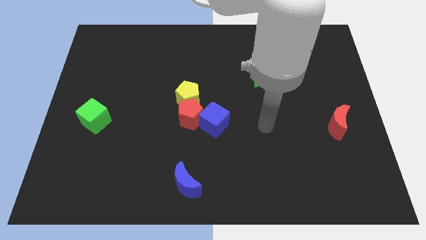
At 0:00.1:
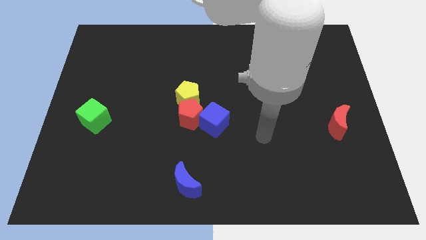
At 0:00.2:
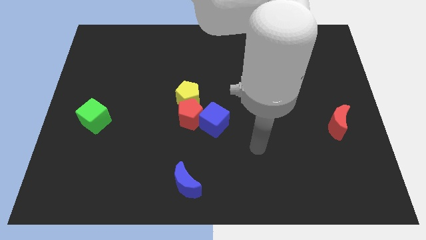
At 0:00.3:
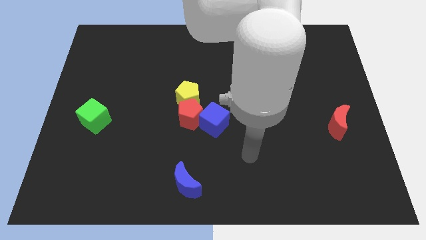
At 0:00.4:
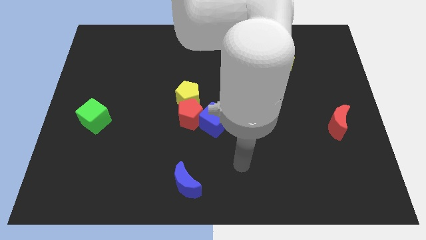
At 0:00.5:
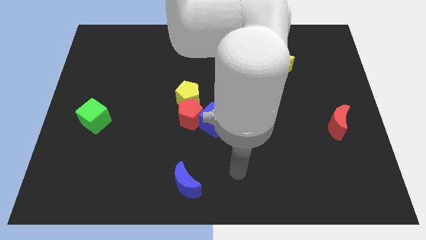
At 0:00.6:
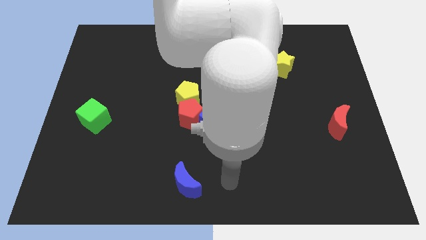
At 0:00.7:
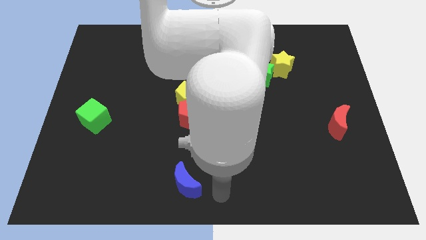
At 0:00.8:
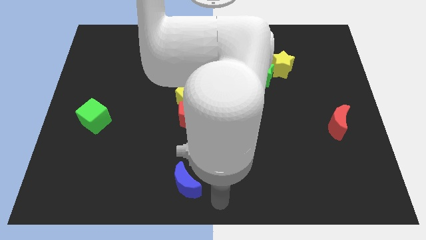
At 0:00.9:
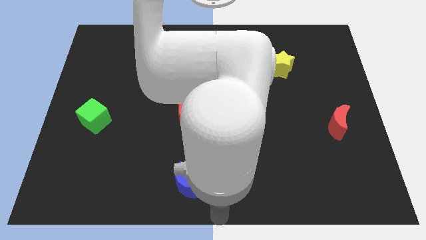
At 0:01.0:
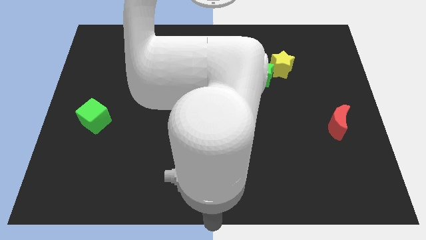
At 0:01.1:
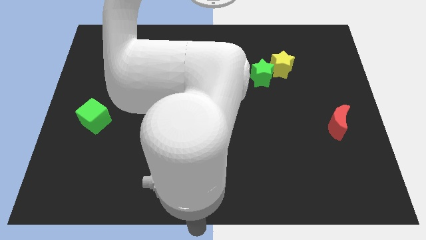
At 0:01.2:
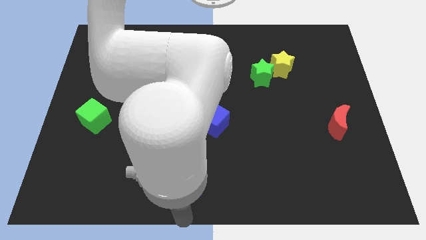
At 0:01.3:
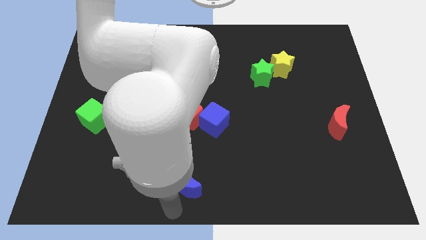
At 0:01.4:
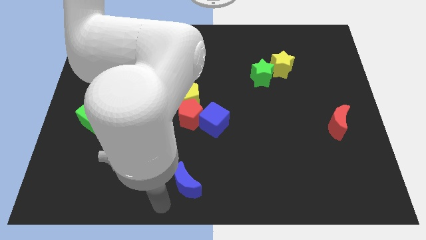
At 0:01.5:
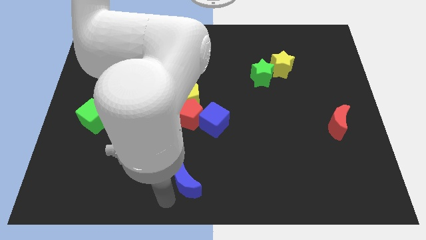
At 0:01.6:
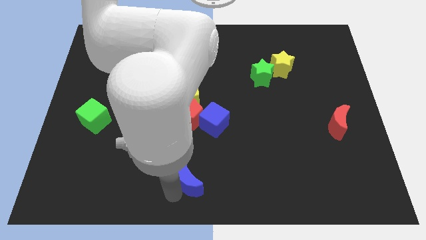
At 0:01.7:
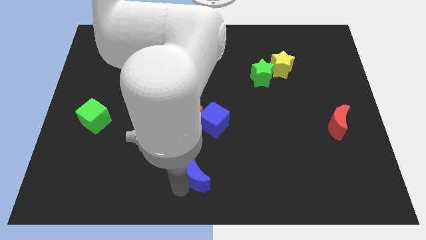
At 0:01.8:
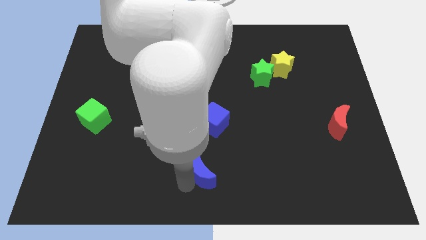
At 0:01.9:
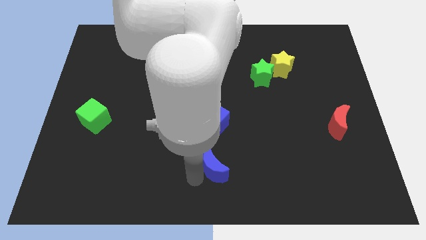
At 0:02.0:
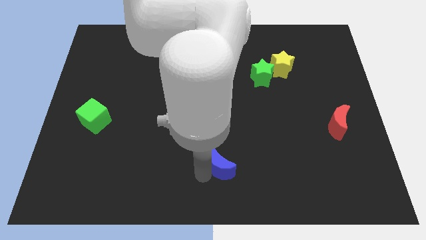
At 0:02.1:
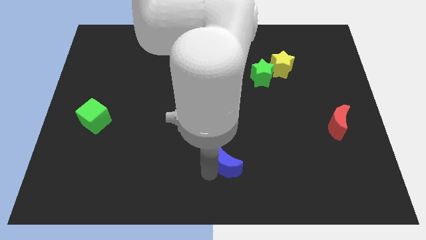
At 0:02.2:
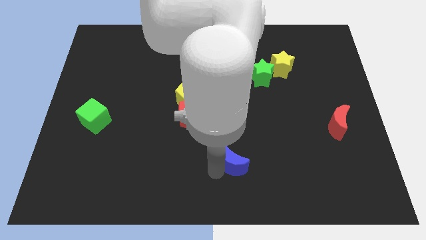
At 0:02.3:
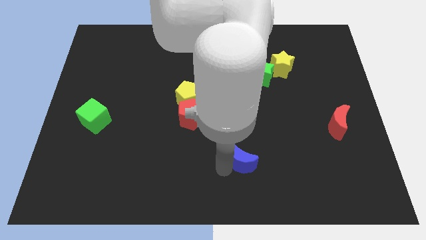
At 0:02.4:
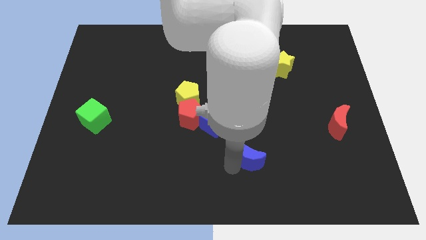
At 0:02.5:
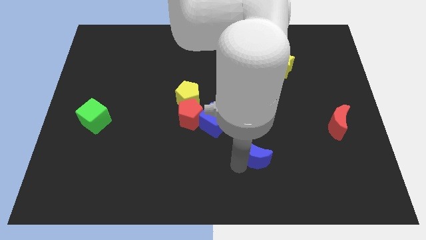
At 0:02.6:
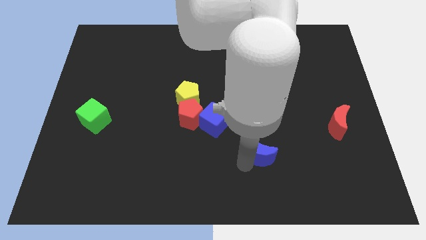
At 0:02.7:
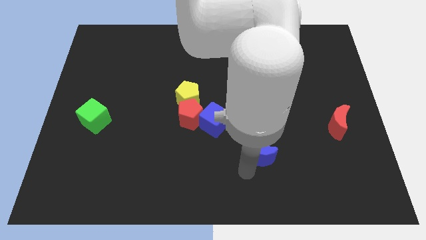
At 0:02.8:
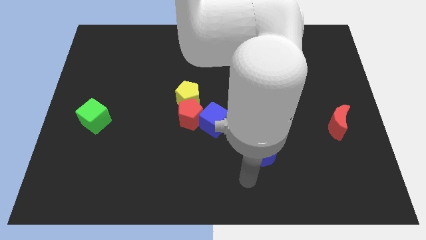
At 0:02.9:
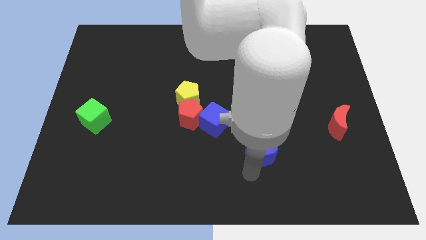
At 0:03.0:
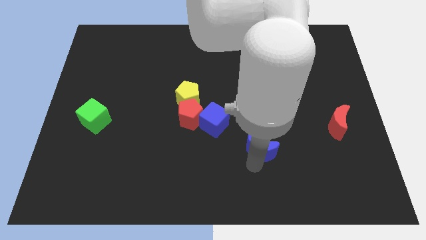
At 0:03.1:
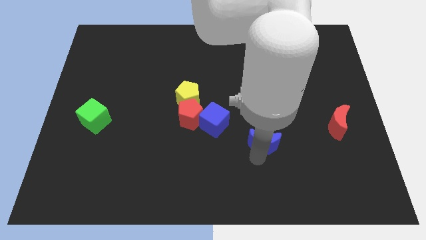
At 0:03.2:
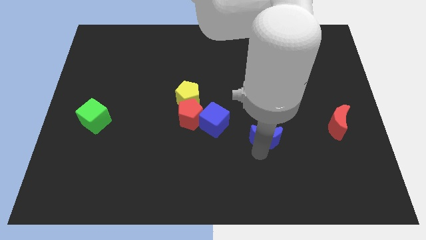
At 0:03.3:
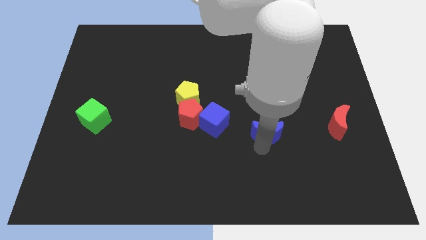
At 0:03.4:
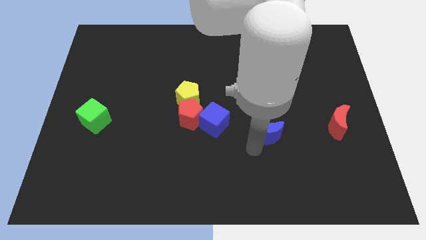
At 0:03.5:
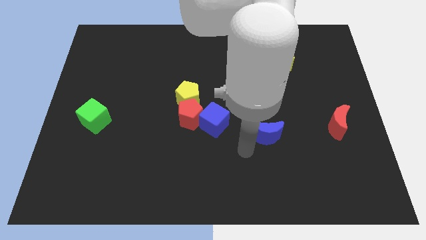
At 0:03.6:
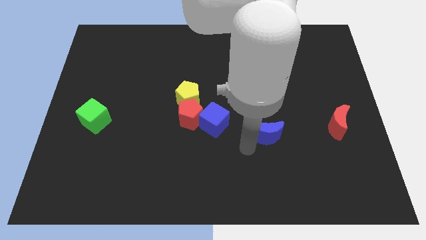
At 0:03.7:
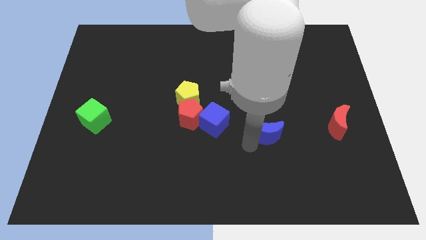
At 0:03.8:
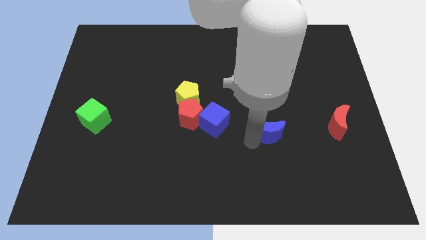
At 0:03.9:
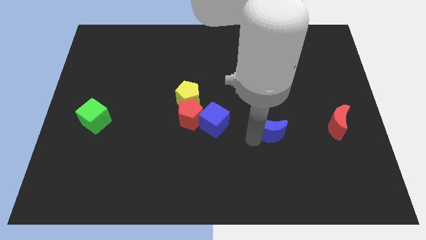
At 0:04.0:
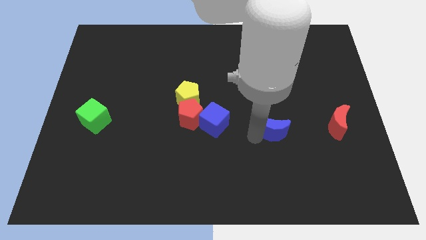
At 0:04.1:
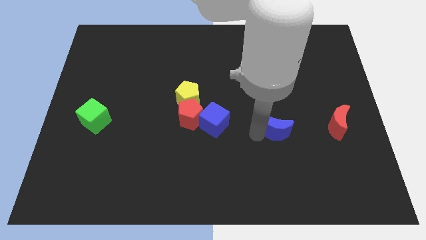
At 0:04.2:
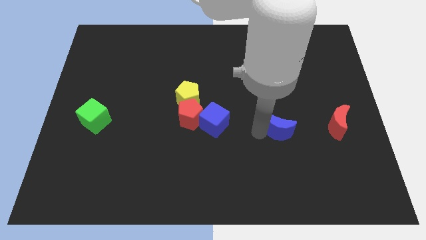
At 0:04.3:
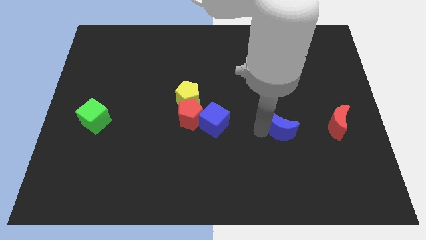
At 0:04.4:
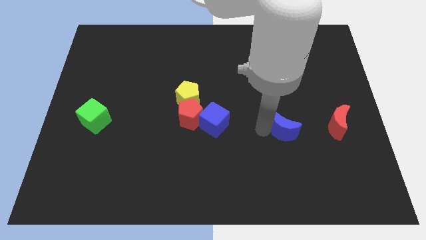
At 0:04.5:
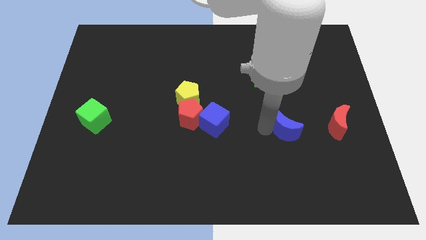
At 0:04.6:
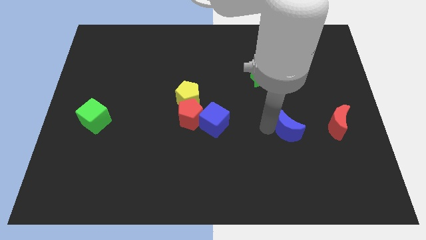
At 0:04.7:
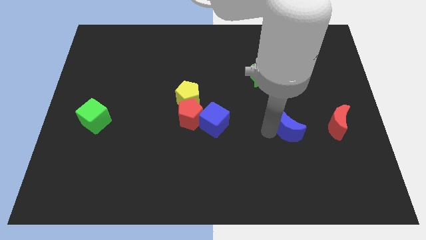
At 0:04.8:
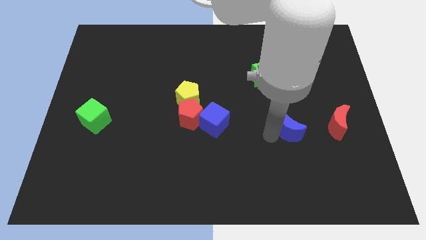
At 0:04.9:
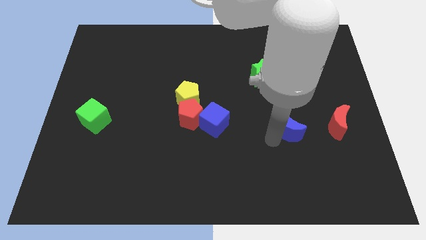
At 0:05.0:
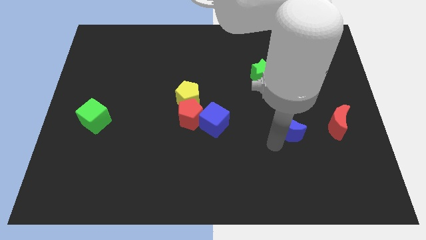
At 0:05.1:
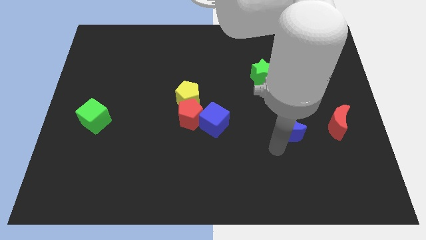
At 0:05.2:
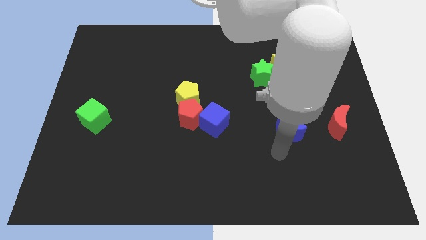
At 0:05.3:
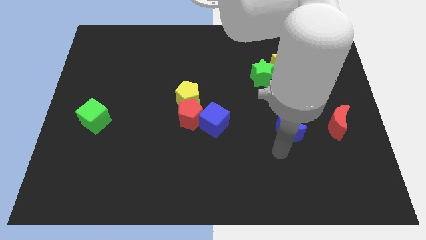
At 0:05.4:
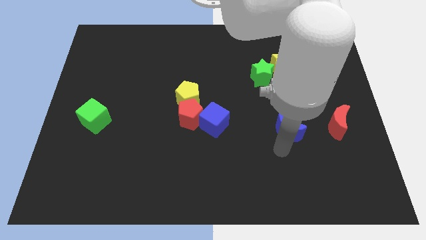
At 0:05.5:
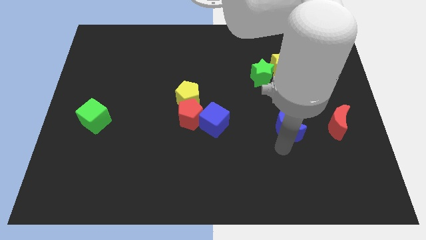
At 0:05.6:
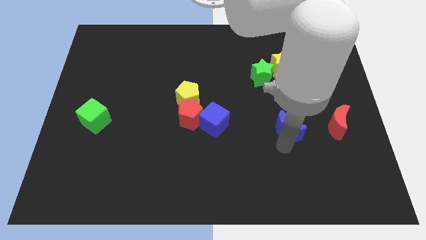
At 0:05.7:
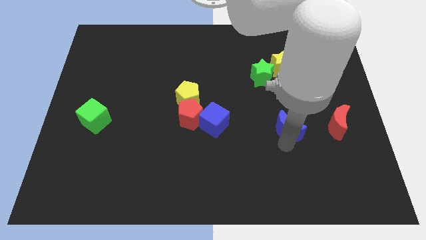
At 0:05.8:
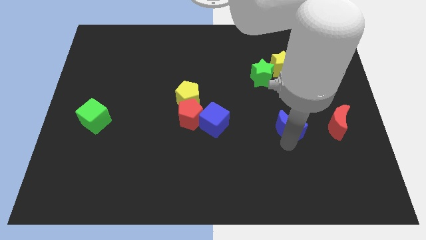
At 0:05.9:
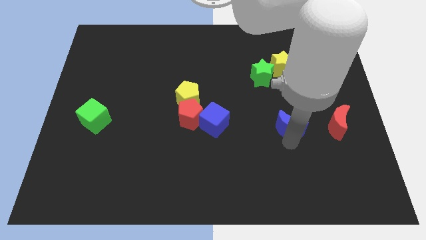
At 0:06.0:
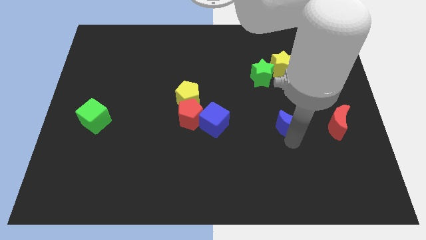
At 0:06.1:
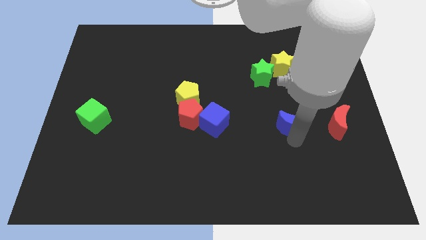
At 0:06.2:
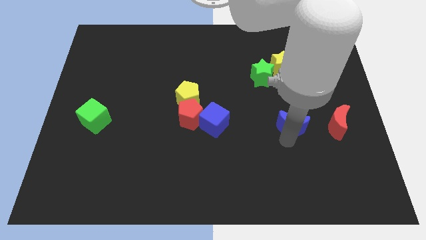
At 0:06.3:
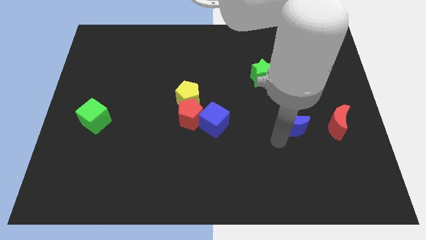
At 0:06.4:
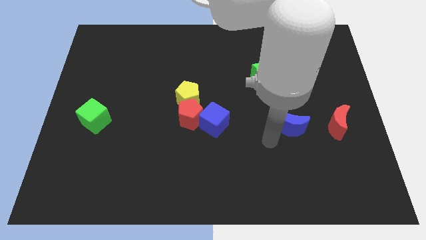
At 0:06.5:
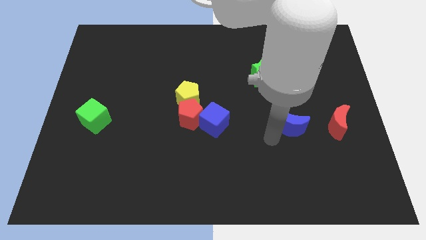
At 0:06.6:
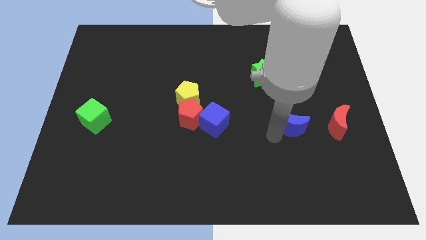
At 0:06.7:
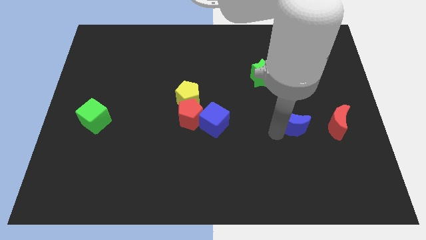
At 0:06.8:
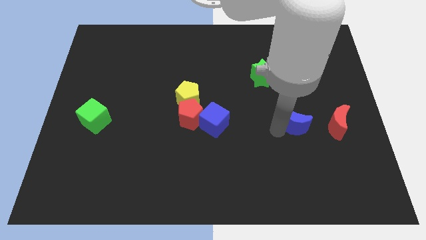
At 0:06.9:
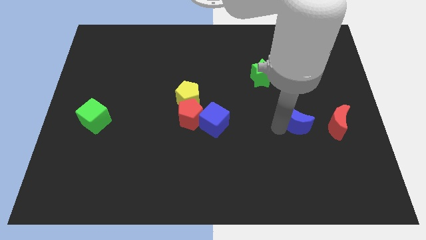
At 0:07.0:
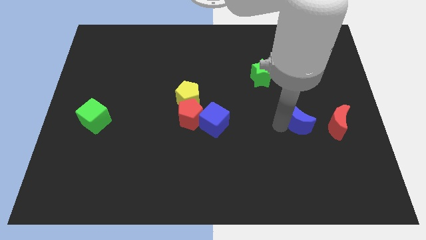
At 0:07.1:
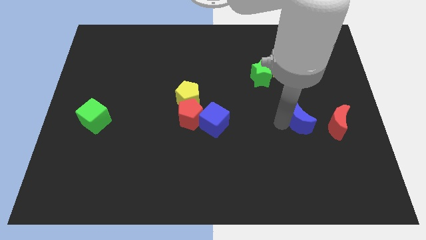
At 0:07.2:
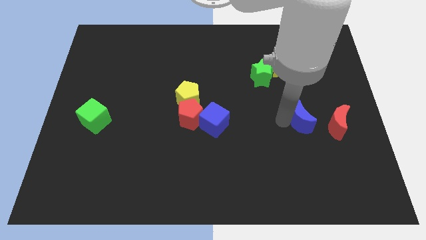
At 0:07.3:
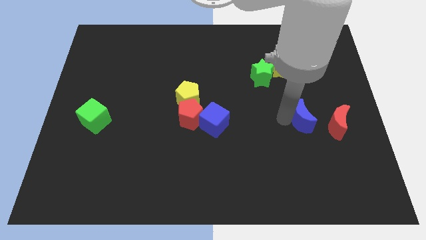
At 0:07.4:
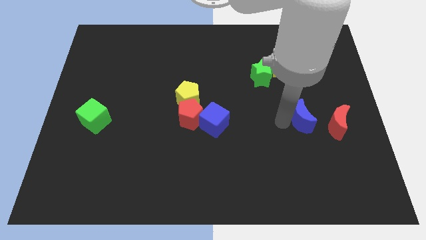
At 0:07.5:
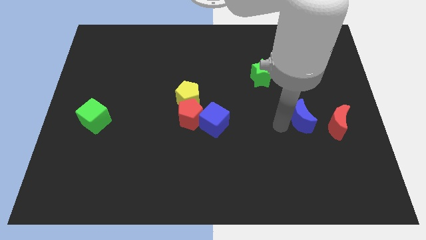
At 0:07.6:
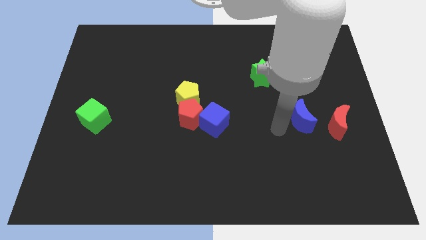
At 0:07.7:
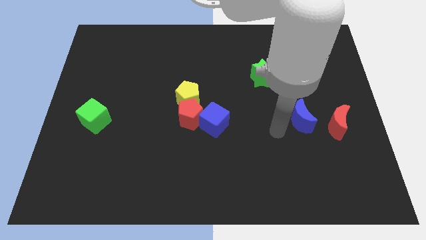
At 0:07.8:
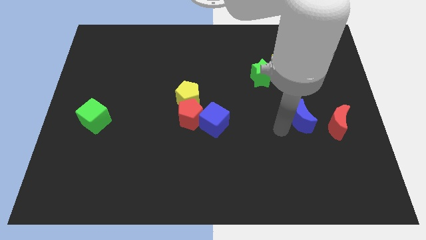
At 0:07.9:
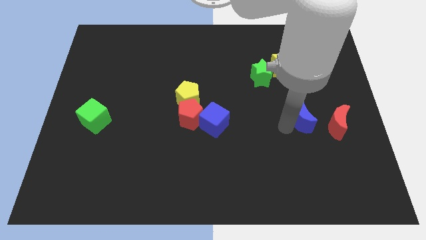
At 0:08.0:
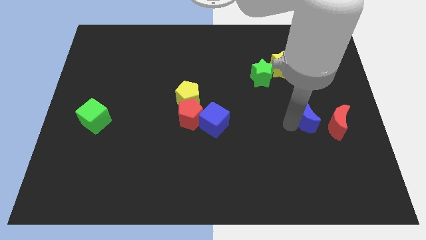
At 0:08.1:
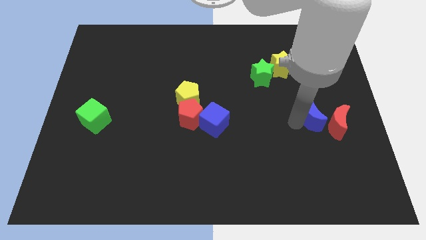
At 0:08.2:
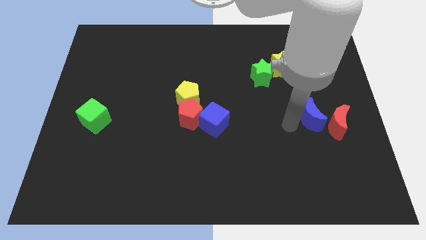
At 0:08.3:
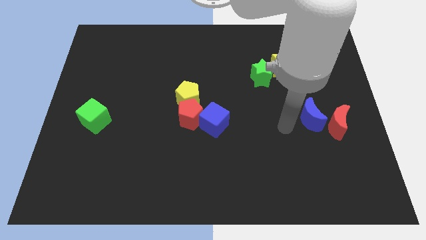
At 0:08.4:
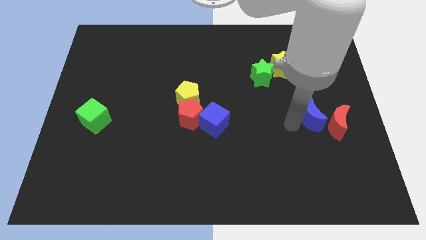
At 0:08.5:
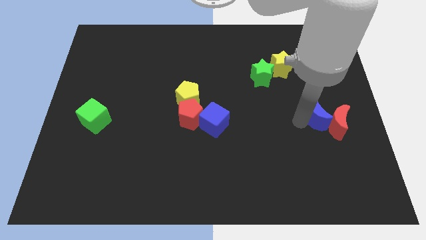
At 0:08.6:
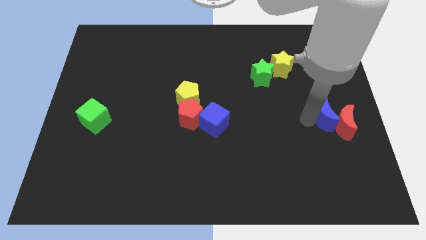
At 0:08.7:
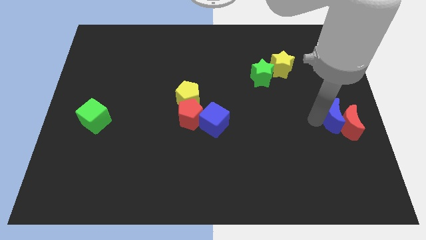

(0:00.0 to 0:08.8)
move the blue moon to the right side of the board
